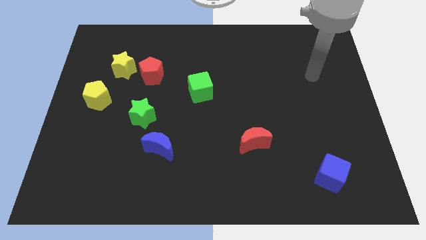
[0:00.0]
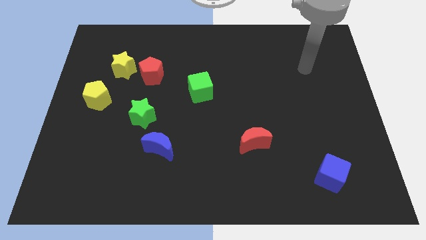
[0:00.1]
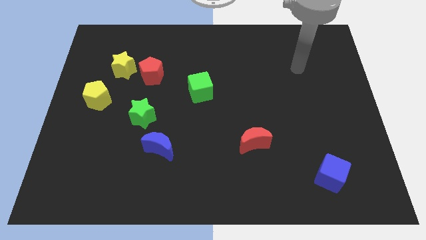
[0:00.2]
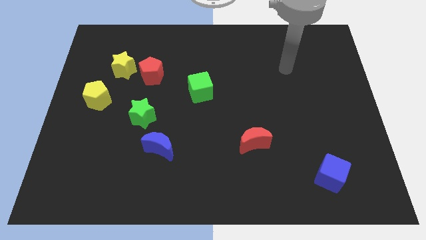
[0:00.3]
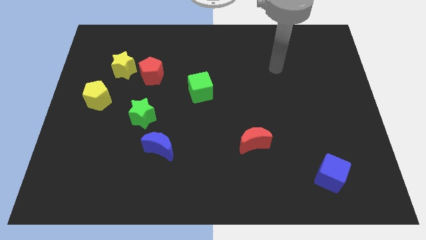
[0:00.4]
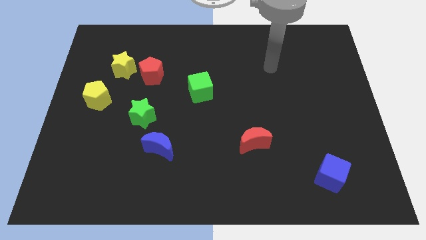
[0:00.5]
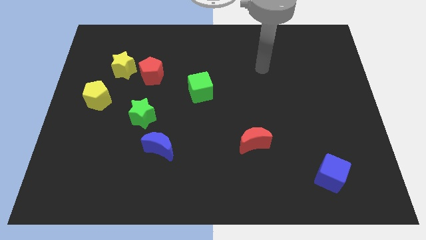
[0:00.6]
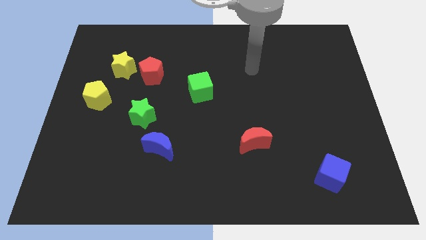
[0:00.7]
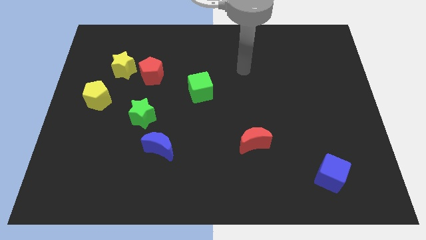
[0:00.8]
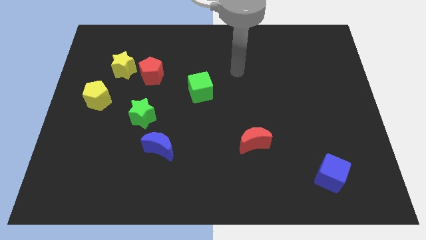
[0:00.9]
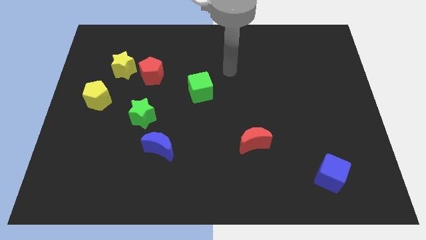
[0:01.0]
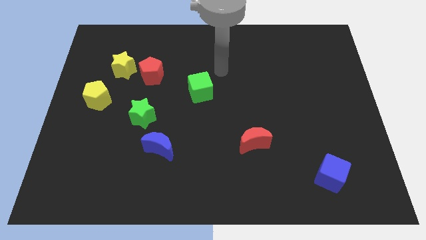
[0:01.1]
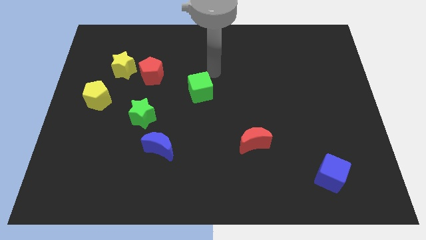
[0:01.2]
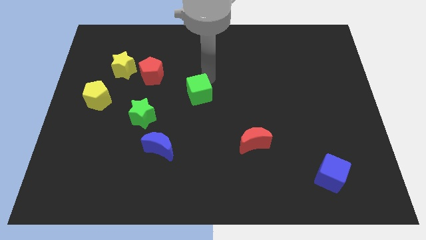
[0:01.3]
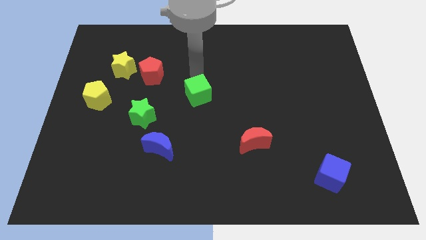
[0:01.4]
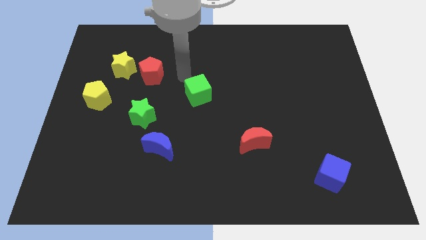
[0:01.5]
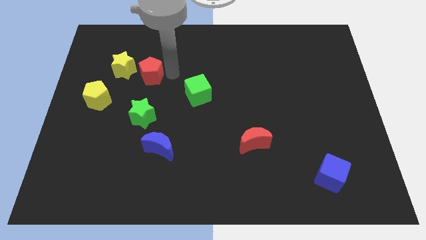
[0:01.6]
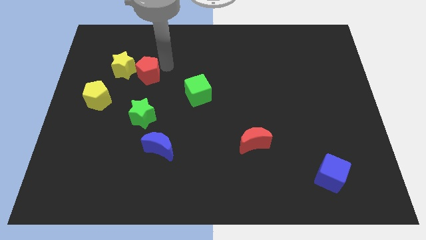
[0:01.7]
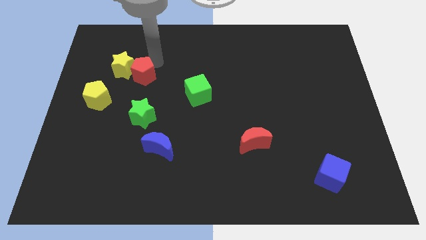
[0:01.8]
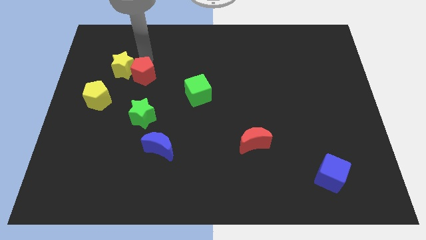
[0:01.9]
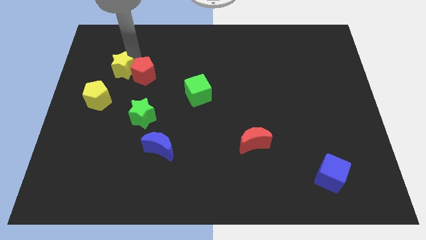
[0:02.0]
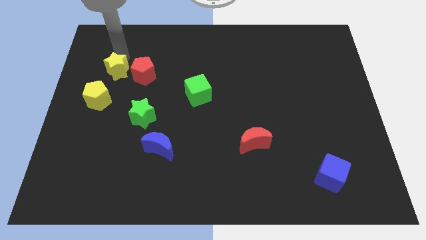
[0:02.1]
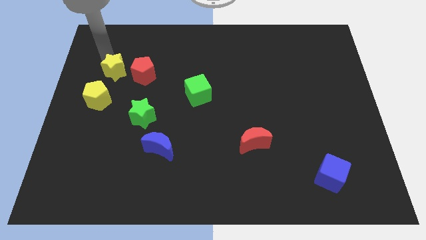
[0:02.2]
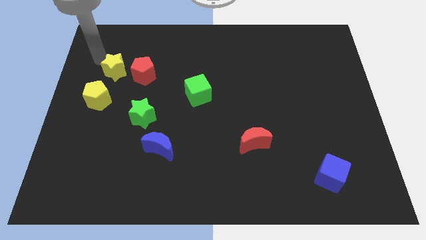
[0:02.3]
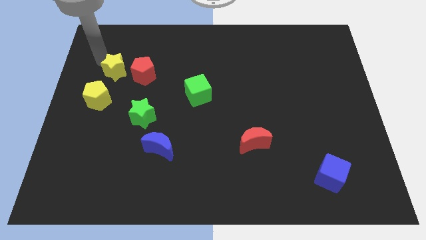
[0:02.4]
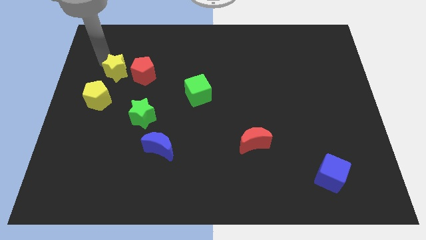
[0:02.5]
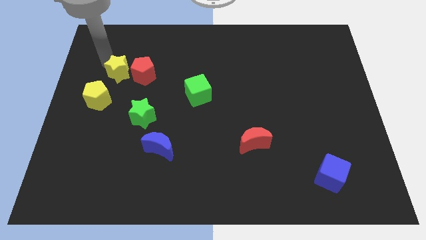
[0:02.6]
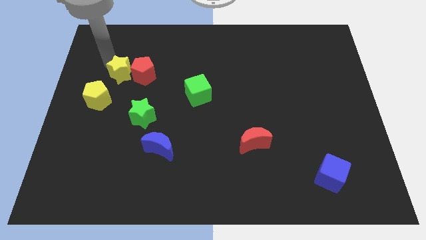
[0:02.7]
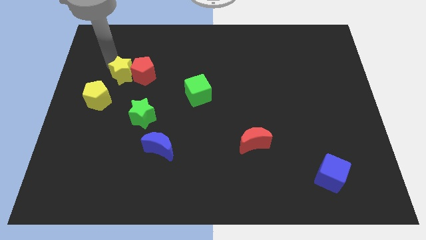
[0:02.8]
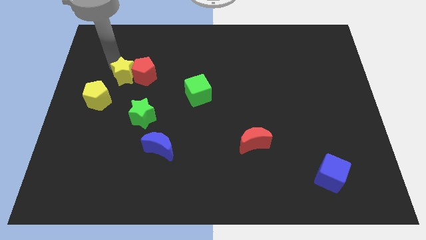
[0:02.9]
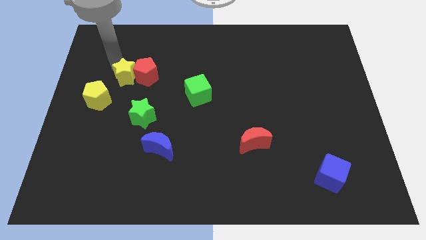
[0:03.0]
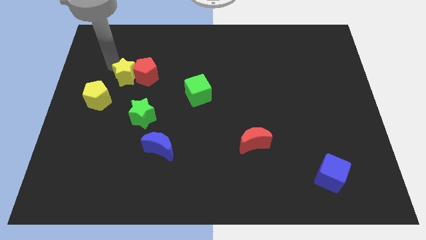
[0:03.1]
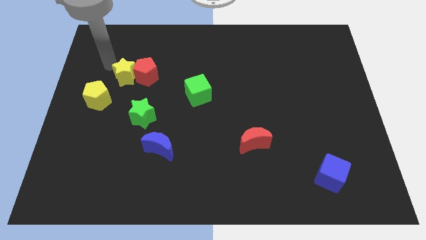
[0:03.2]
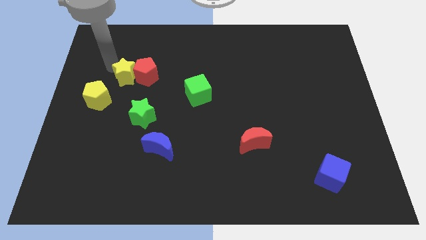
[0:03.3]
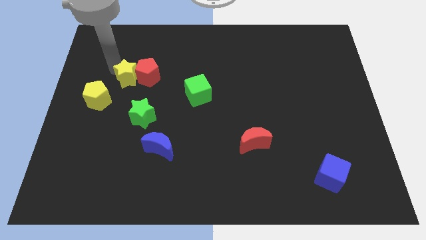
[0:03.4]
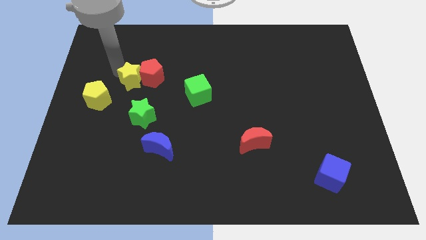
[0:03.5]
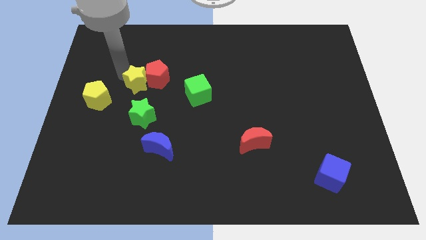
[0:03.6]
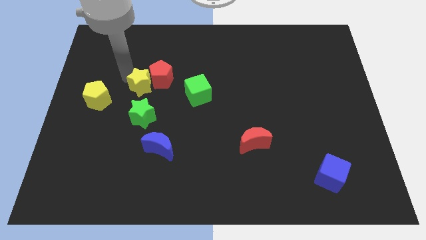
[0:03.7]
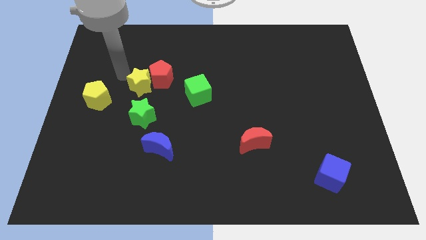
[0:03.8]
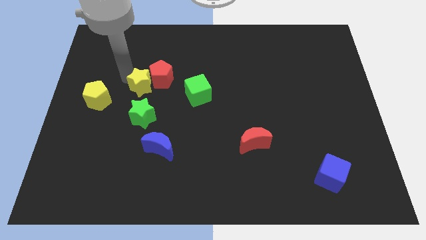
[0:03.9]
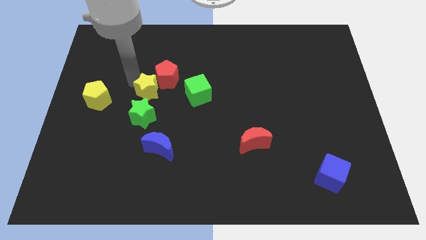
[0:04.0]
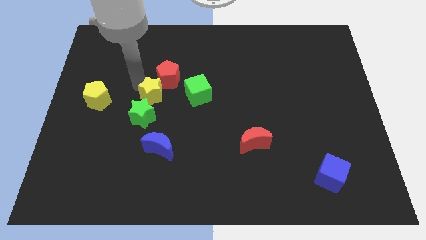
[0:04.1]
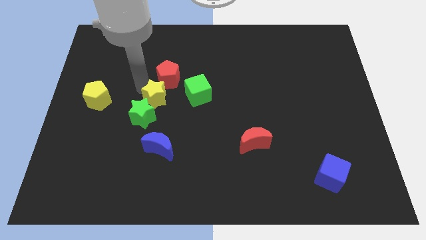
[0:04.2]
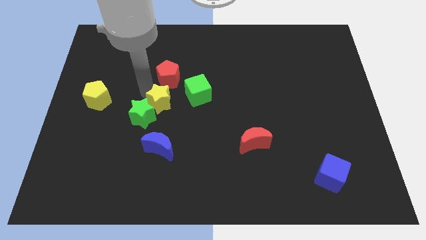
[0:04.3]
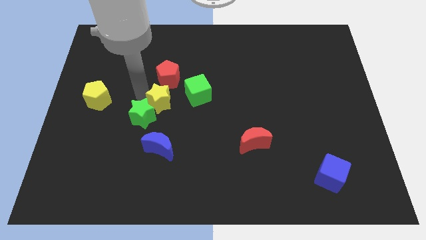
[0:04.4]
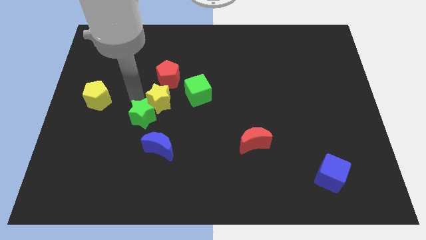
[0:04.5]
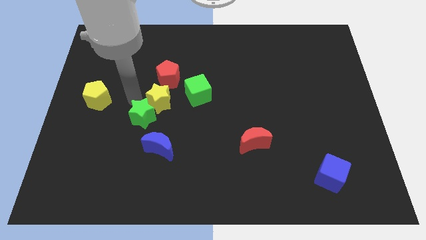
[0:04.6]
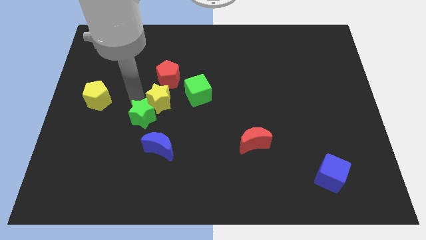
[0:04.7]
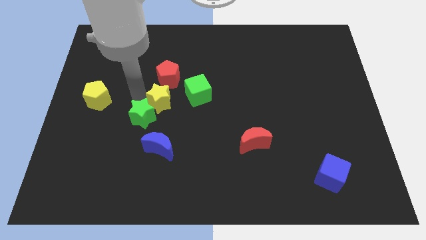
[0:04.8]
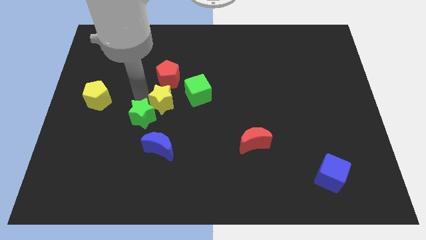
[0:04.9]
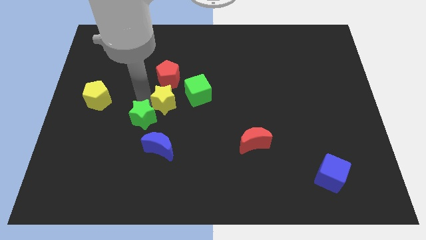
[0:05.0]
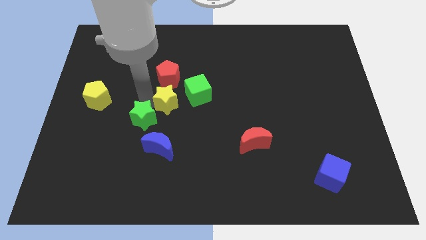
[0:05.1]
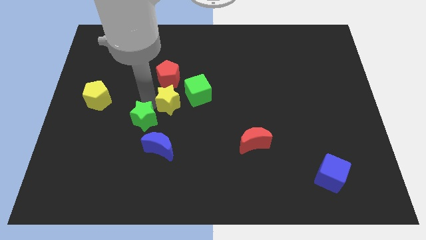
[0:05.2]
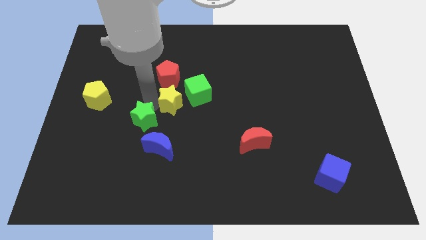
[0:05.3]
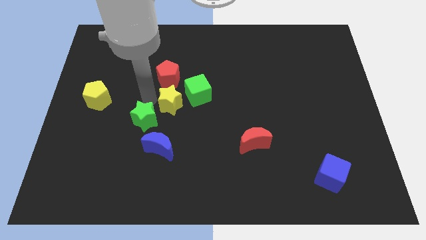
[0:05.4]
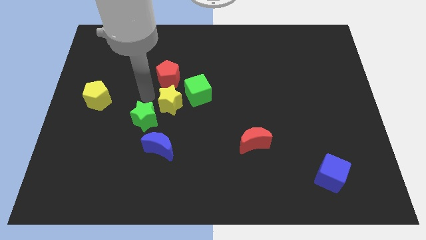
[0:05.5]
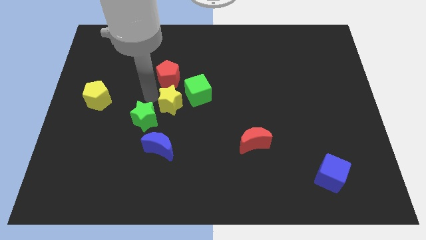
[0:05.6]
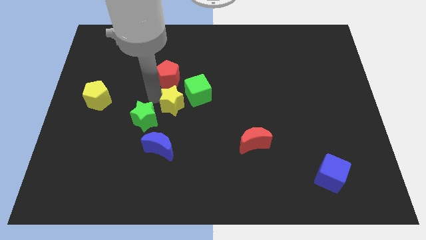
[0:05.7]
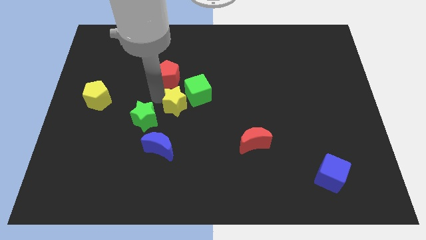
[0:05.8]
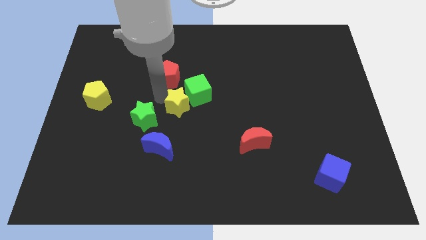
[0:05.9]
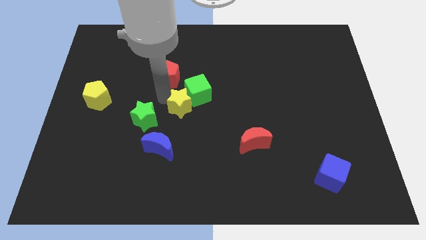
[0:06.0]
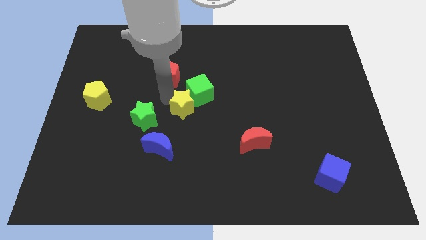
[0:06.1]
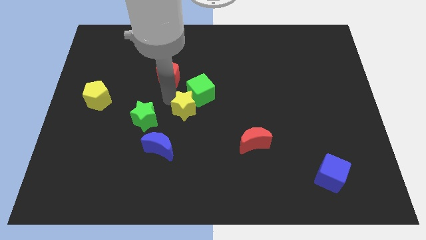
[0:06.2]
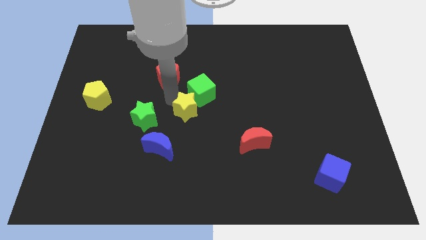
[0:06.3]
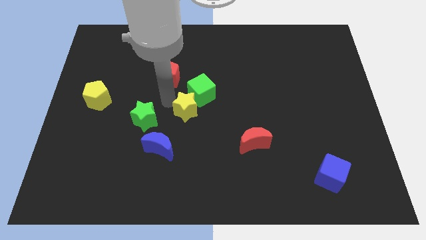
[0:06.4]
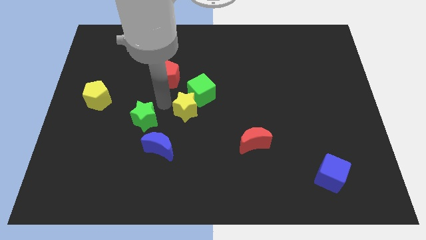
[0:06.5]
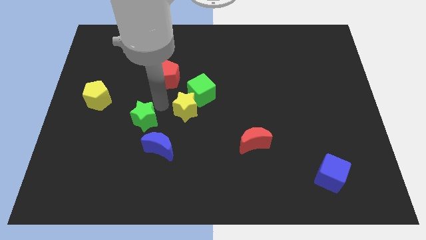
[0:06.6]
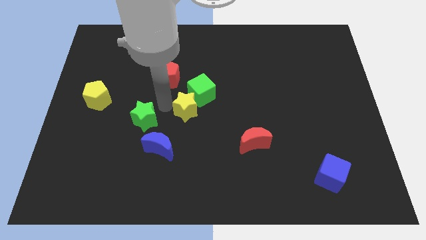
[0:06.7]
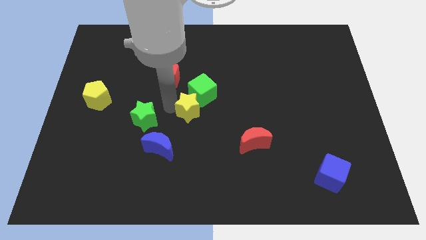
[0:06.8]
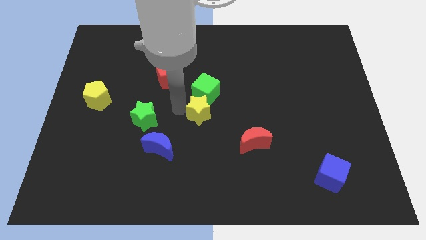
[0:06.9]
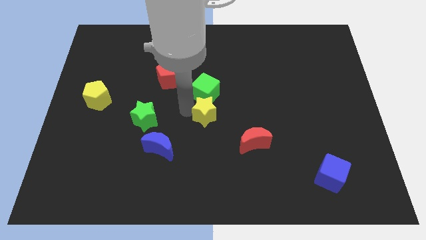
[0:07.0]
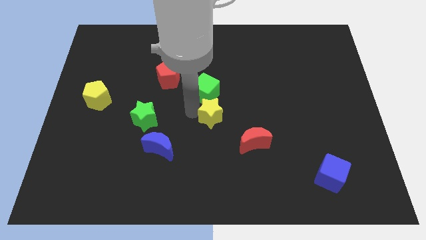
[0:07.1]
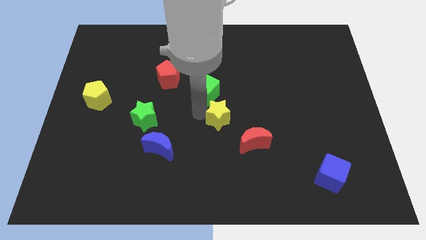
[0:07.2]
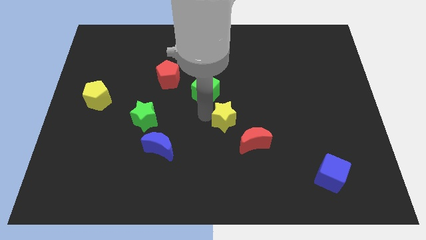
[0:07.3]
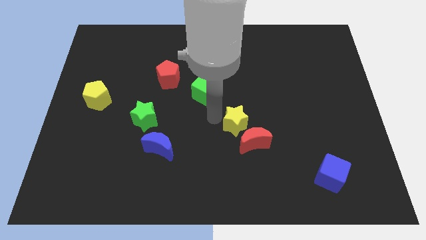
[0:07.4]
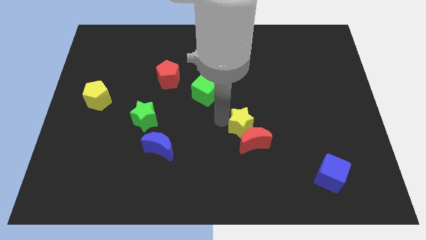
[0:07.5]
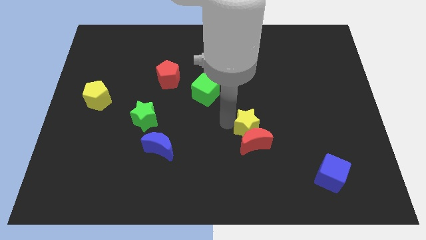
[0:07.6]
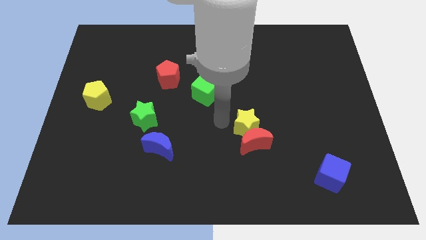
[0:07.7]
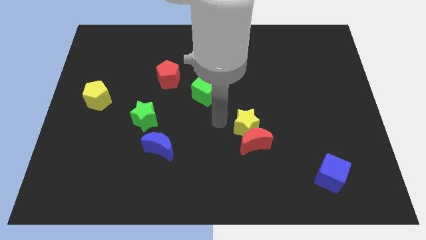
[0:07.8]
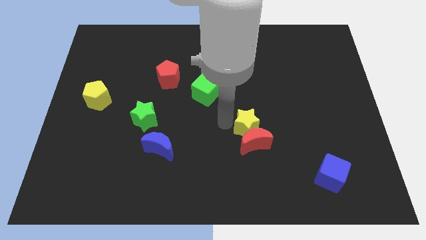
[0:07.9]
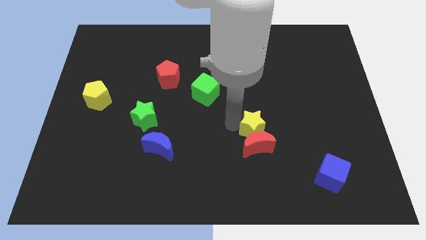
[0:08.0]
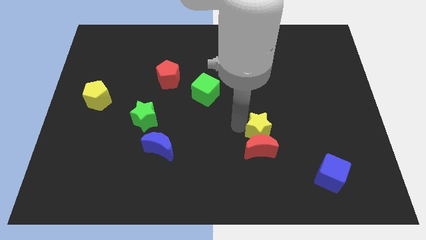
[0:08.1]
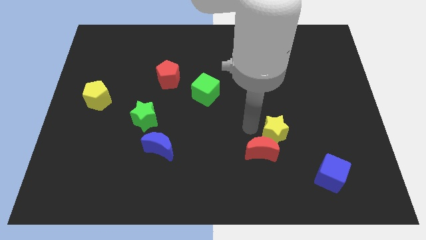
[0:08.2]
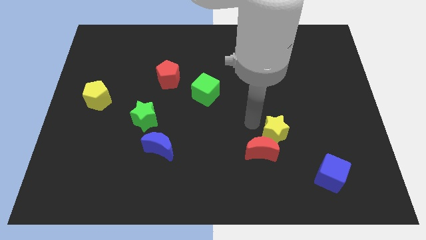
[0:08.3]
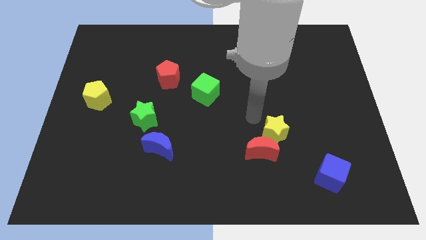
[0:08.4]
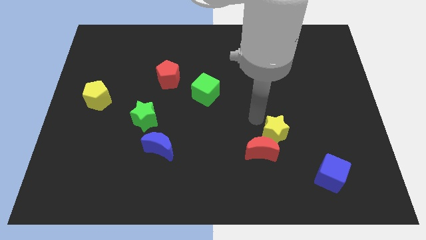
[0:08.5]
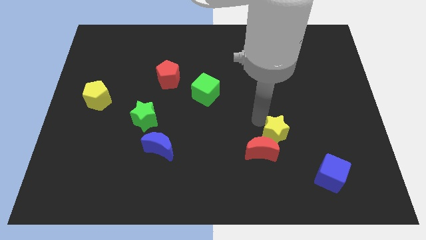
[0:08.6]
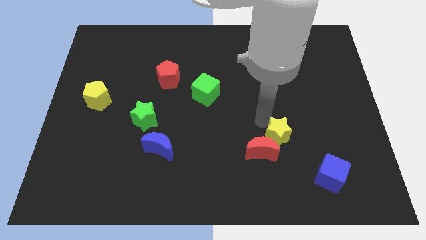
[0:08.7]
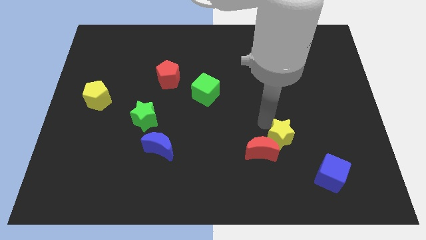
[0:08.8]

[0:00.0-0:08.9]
slide the yellow star to the top left of the blue cube
